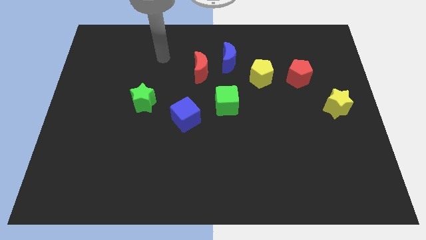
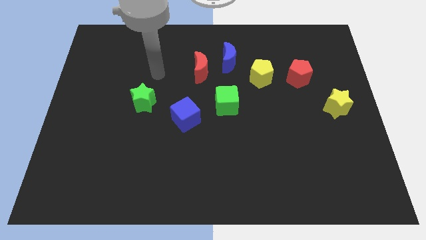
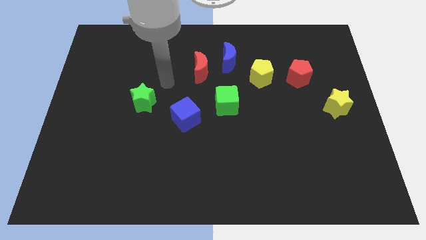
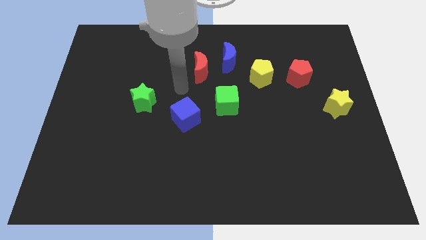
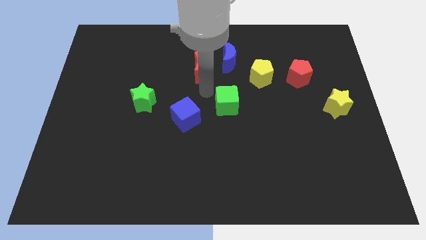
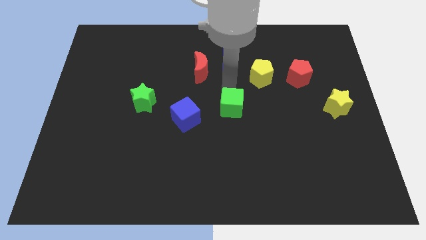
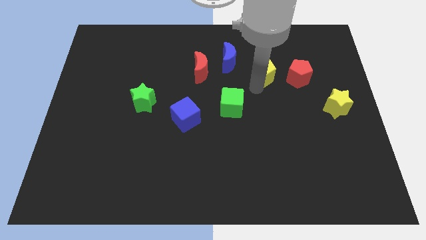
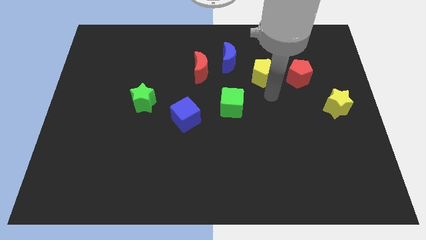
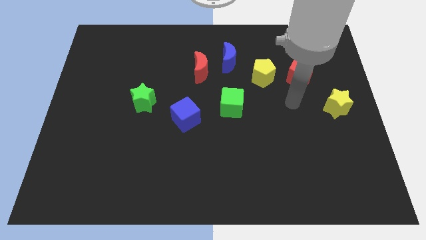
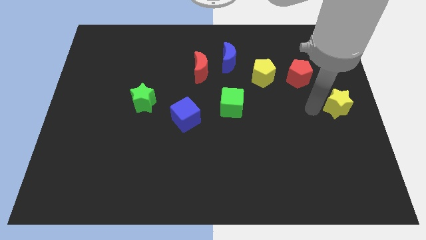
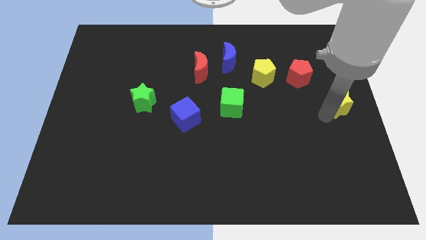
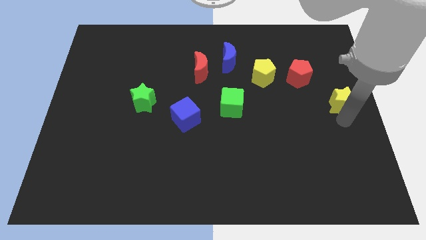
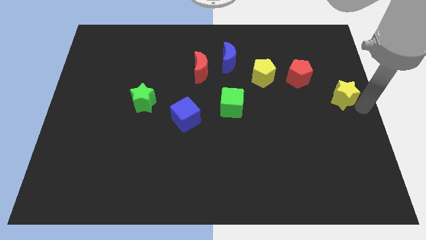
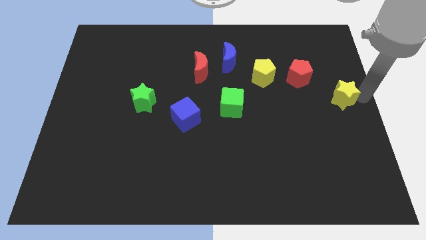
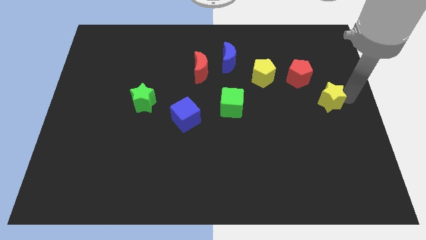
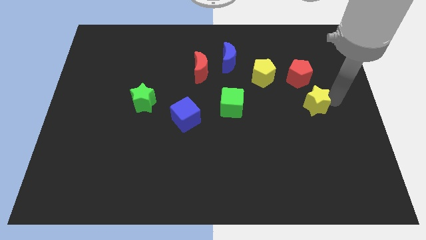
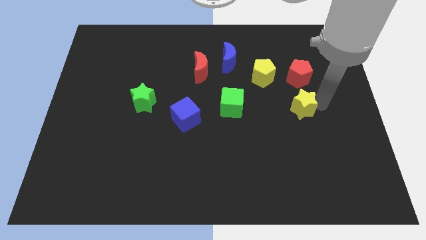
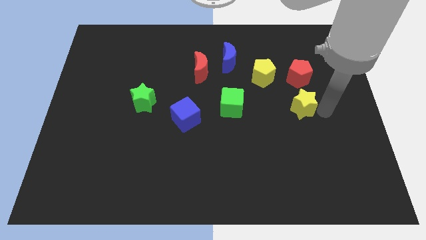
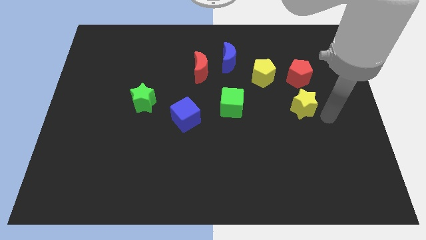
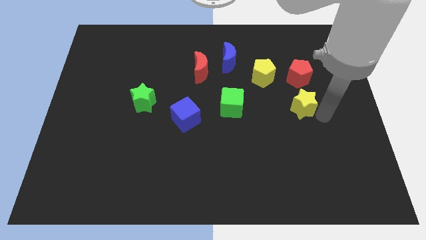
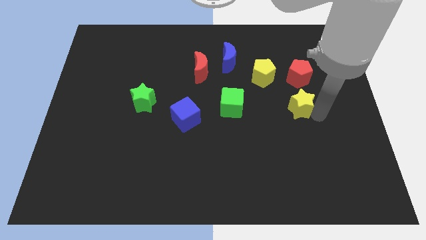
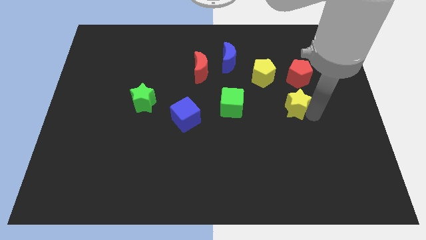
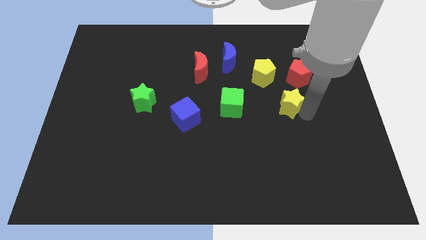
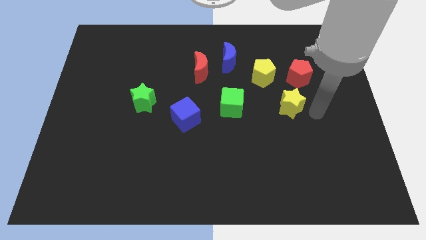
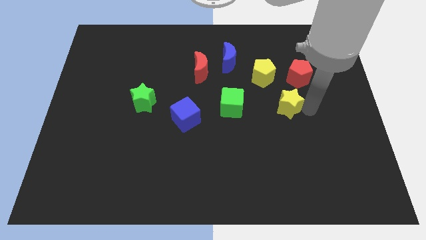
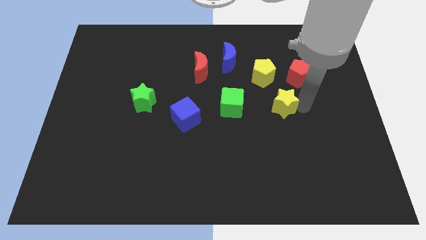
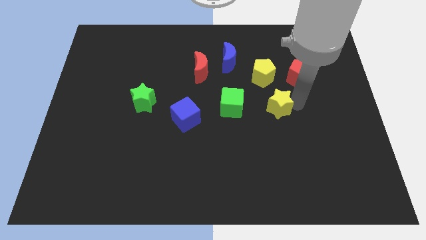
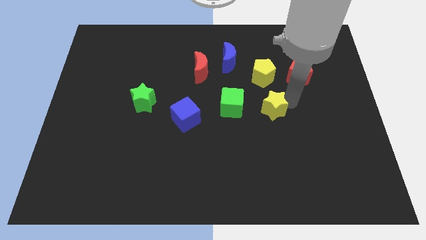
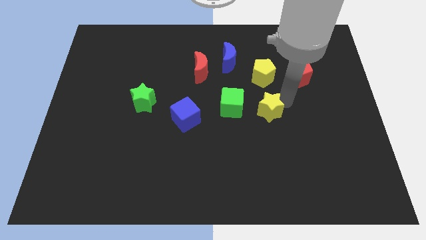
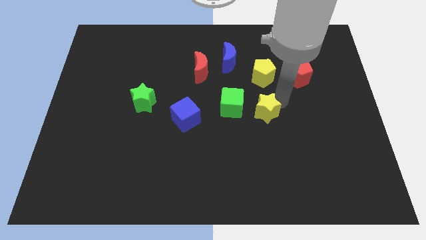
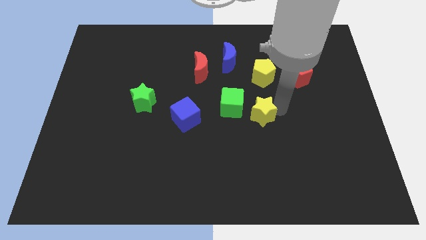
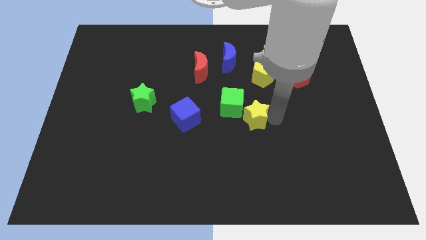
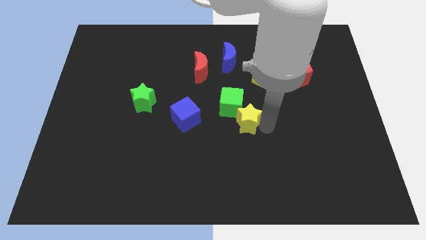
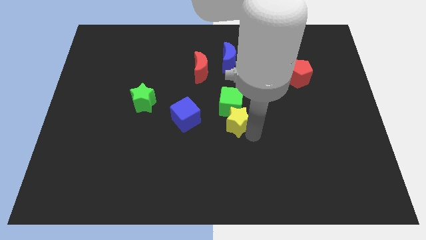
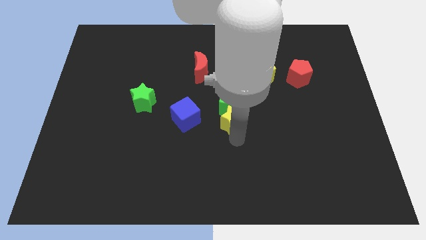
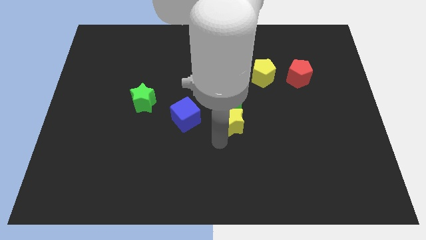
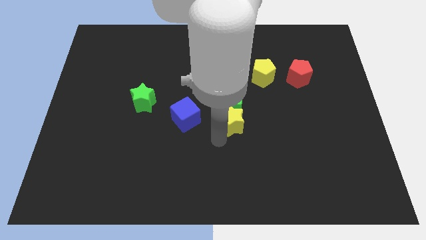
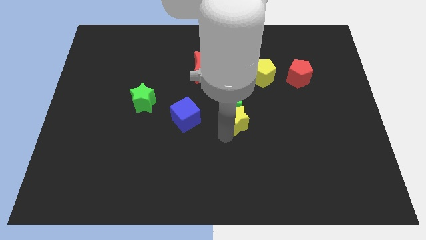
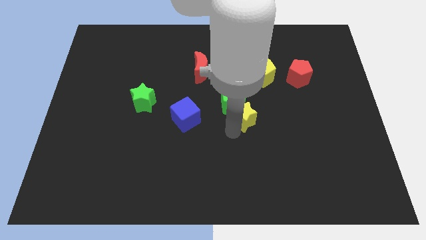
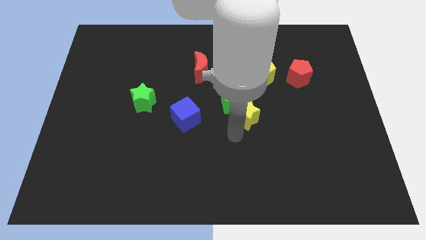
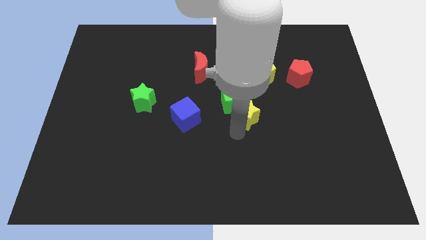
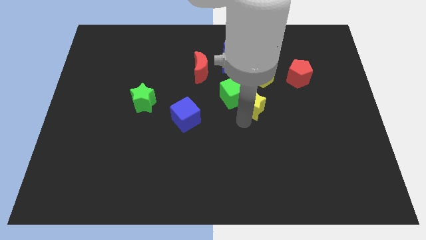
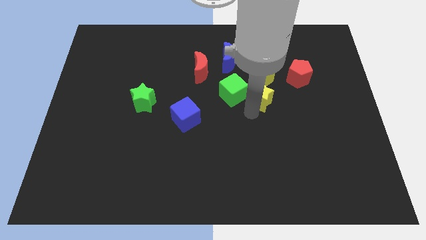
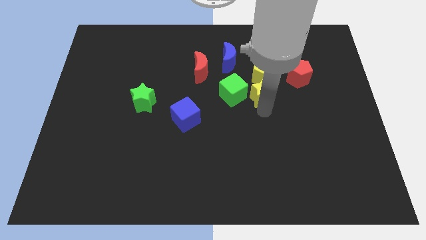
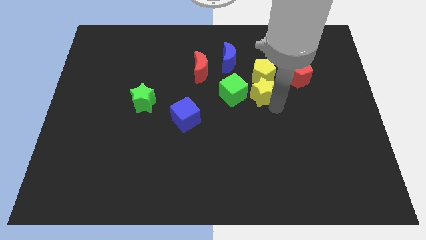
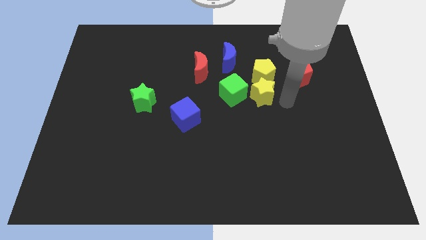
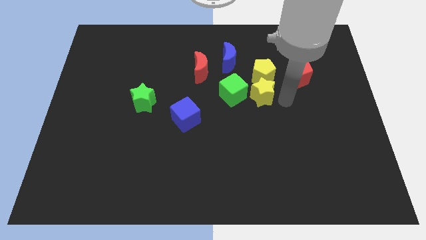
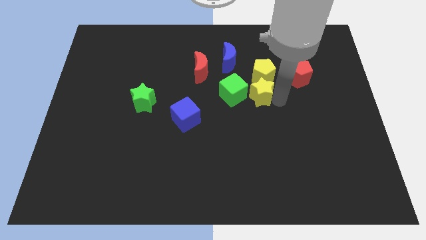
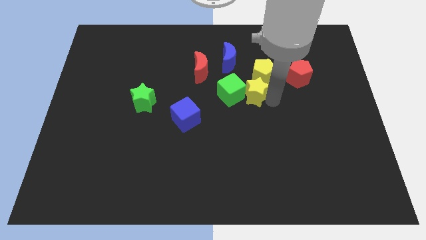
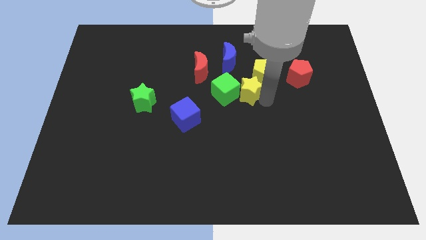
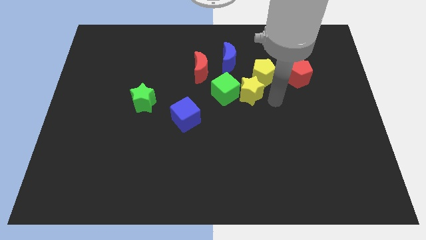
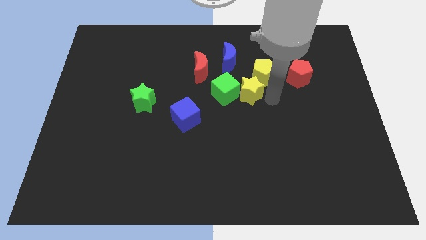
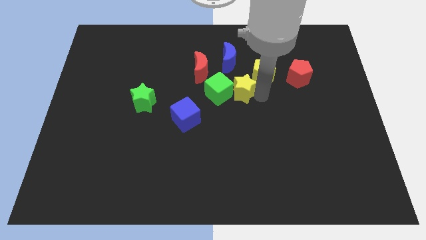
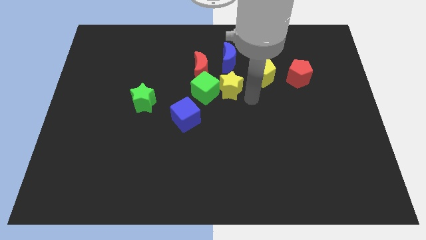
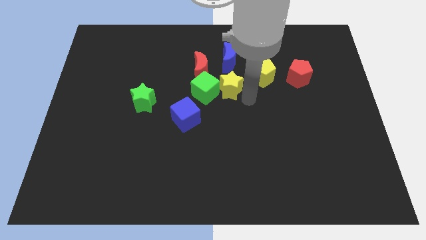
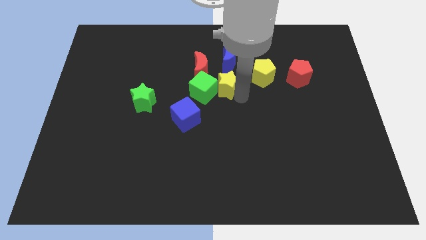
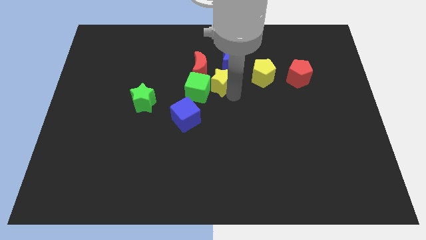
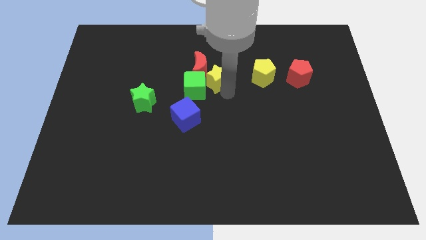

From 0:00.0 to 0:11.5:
put the yellow star close to the red moon

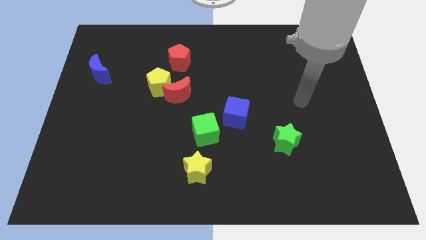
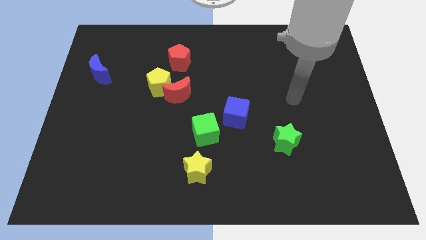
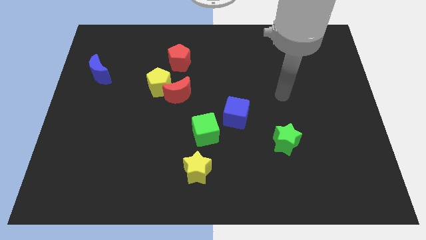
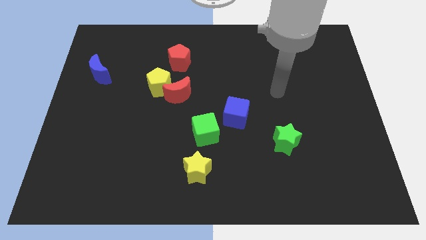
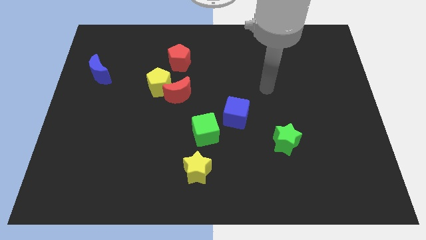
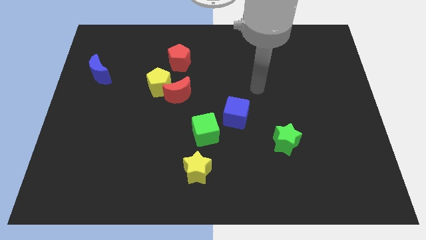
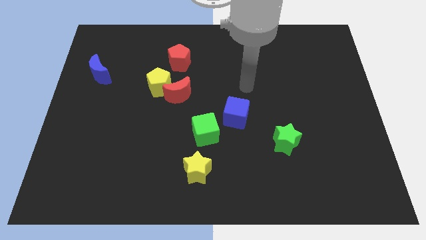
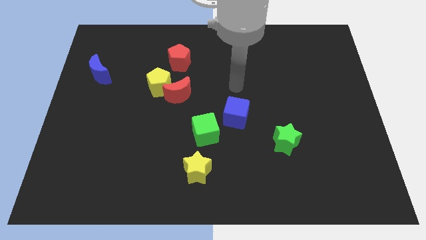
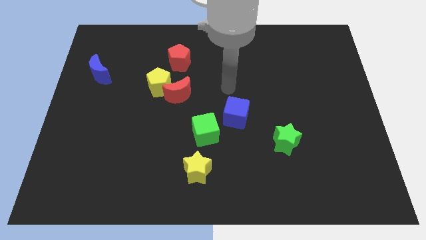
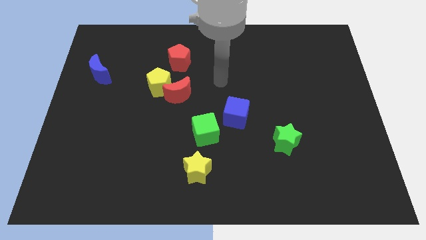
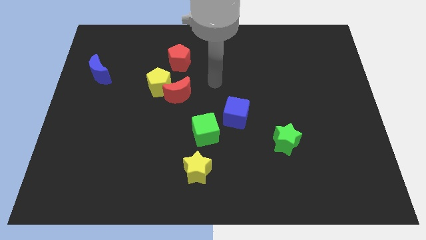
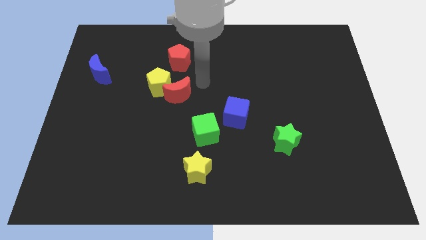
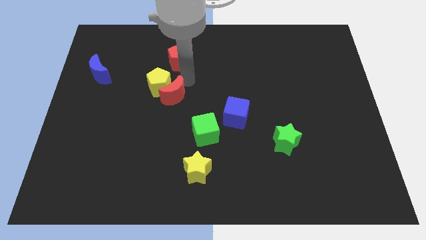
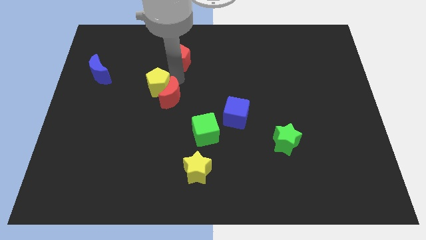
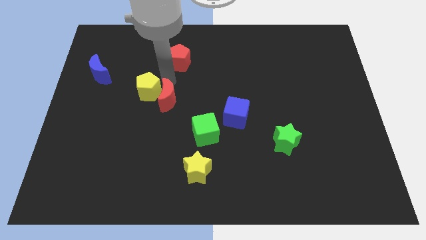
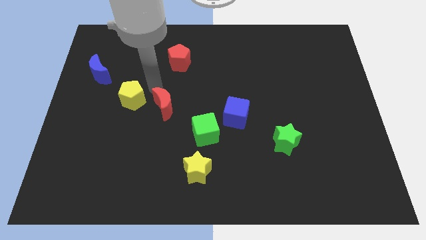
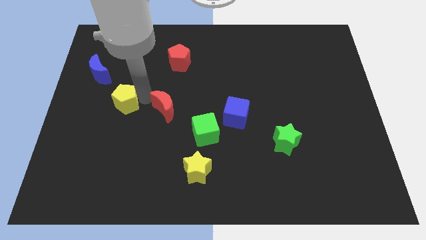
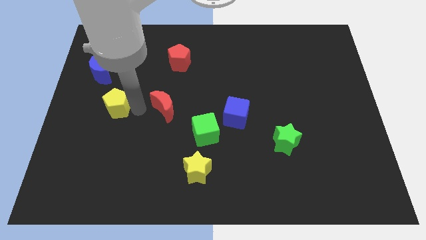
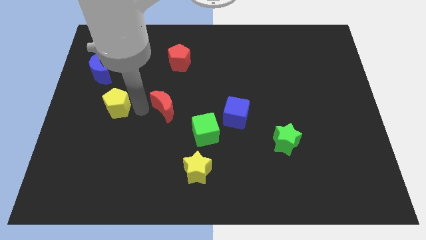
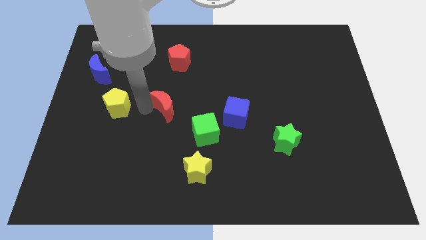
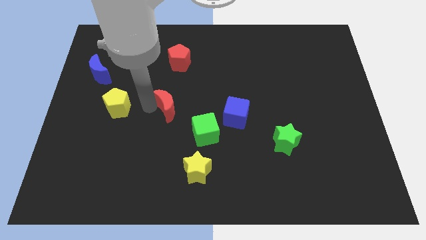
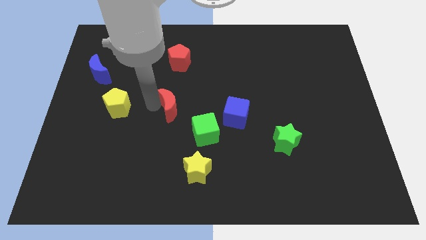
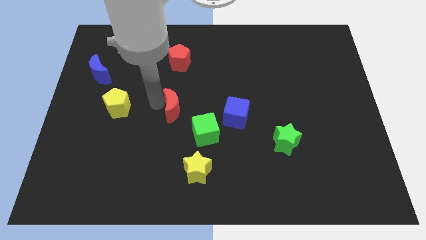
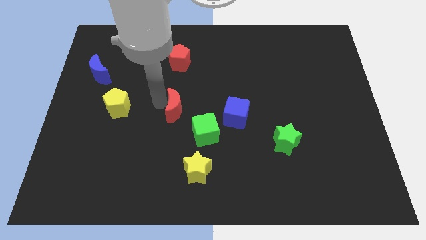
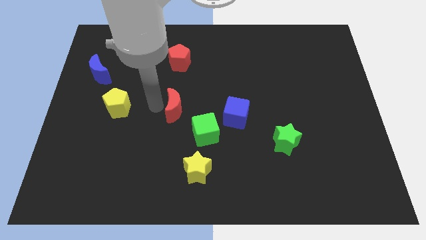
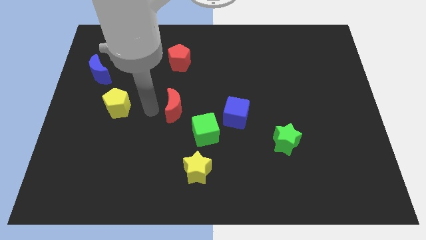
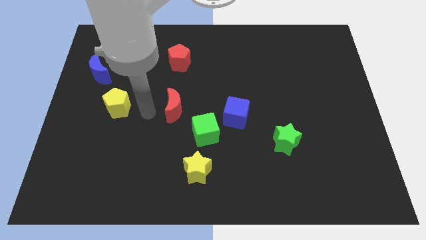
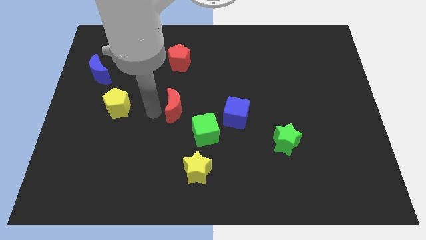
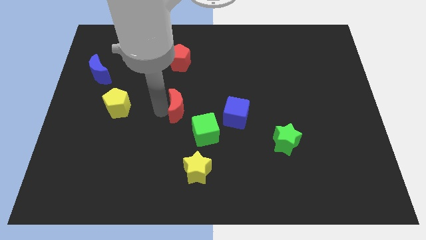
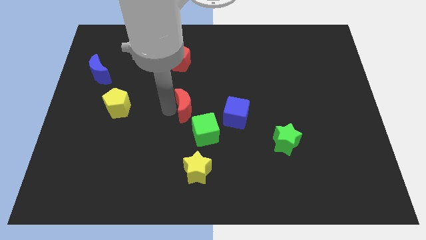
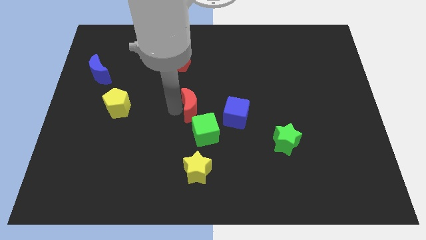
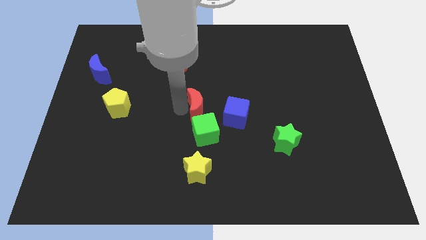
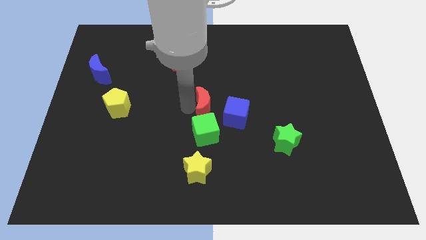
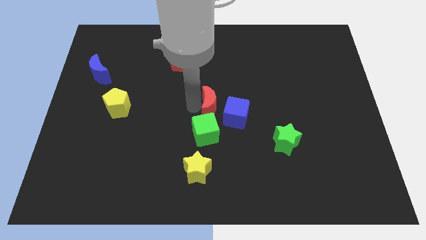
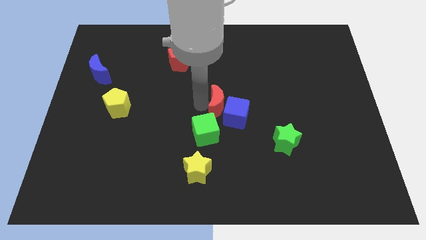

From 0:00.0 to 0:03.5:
put the red moon to the blue cube
